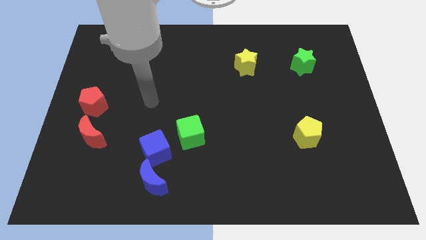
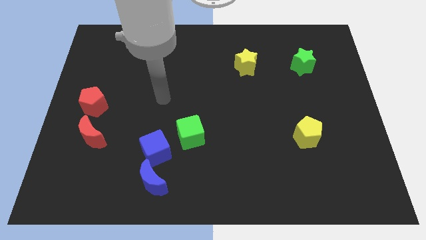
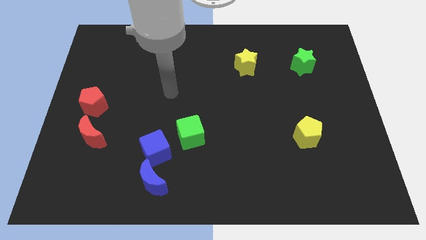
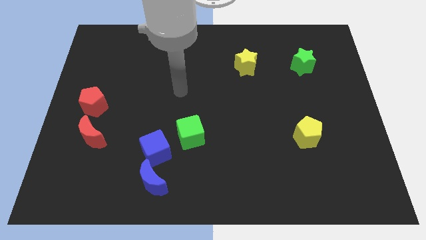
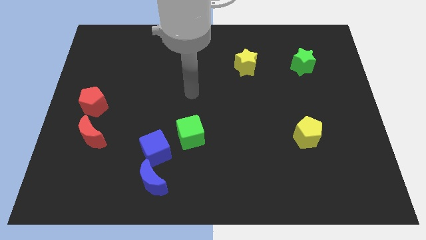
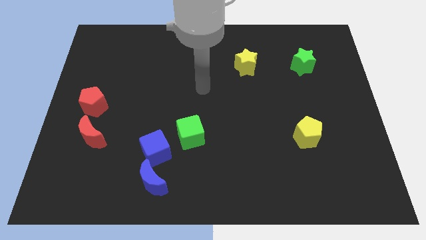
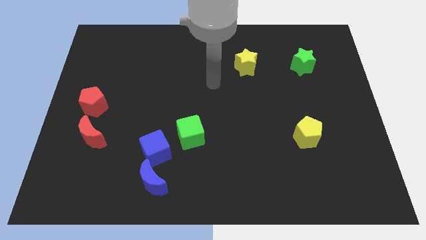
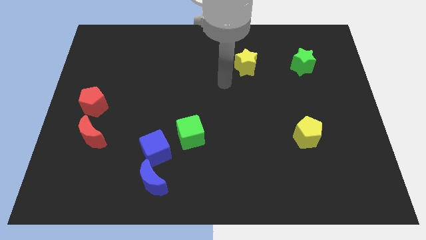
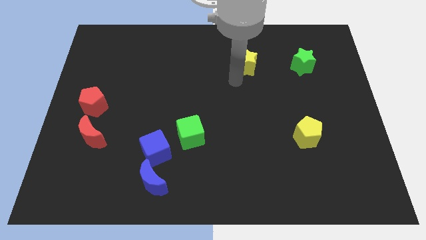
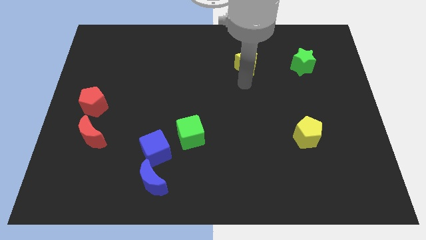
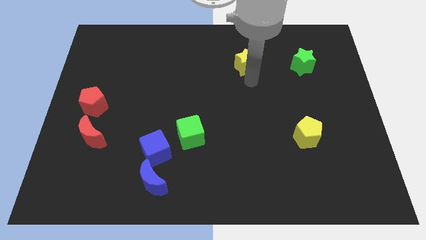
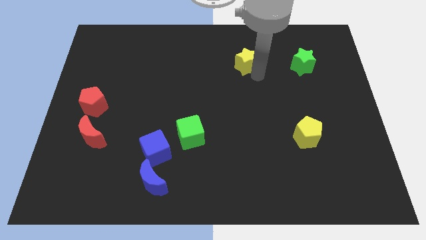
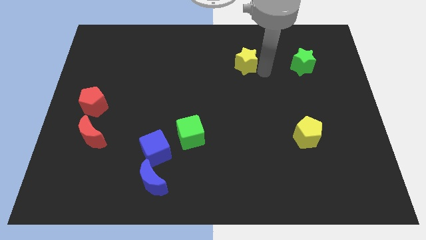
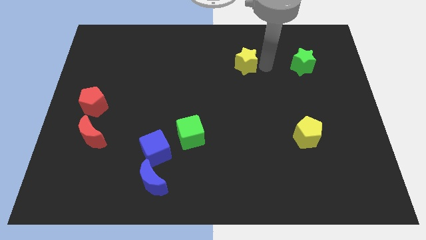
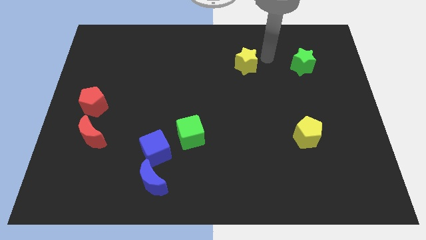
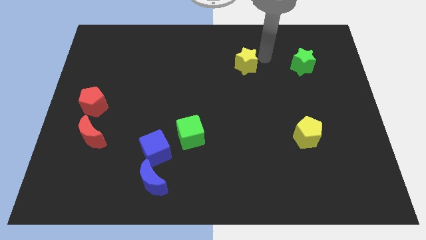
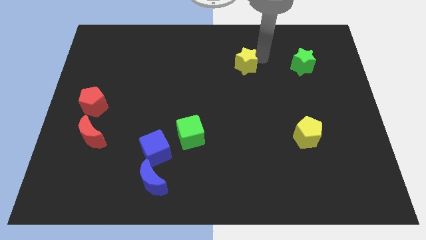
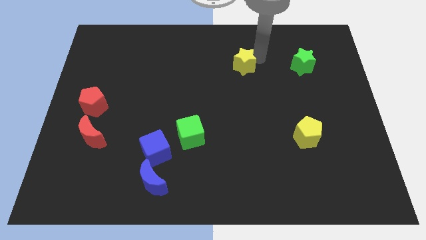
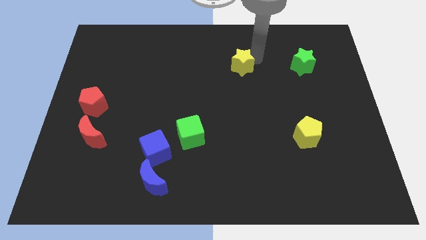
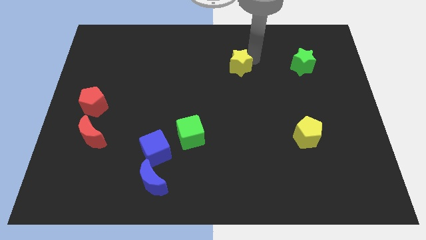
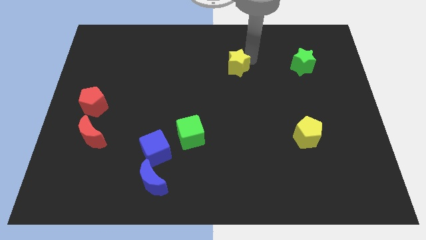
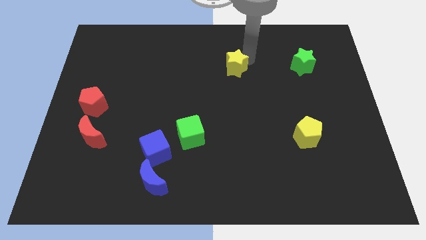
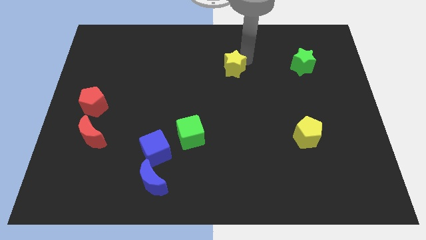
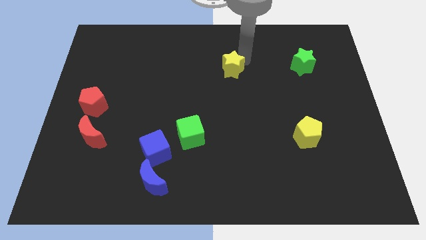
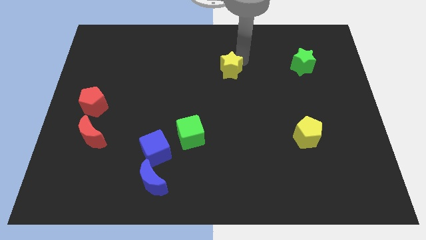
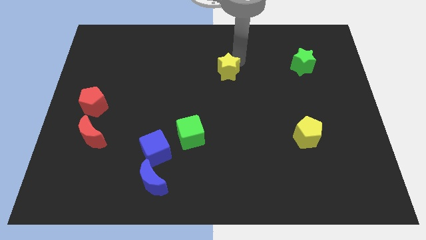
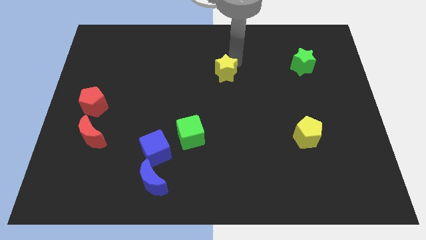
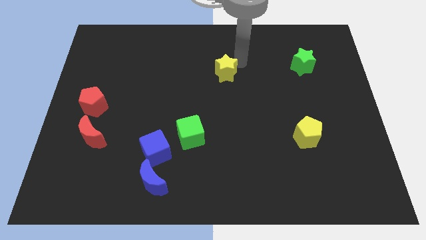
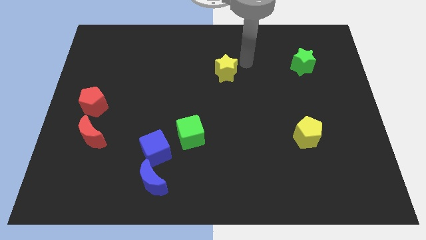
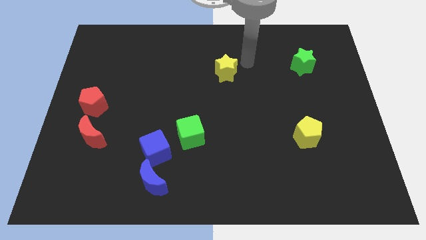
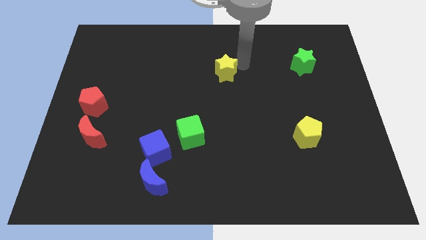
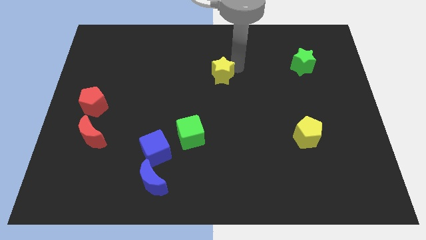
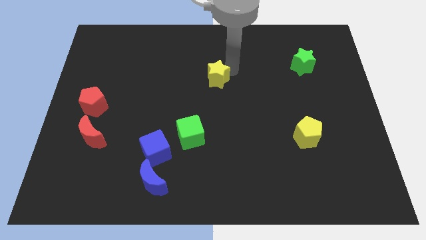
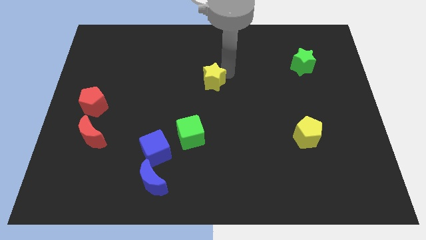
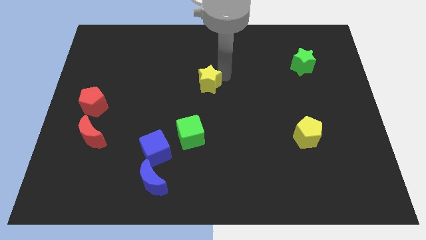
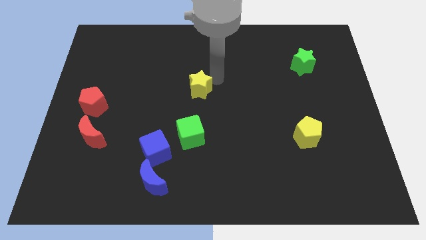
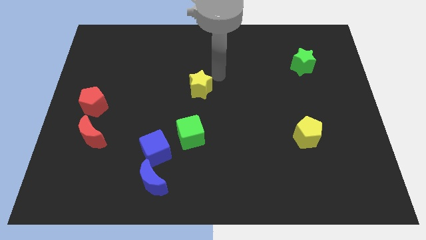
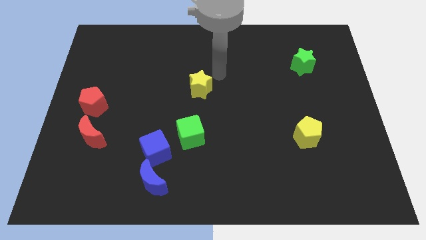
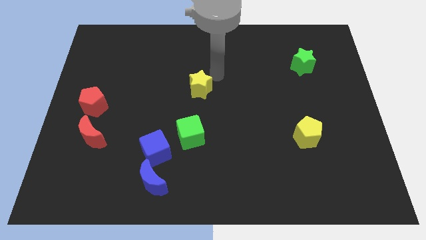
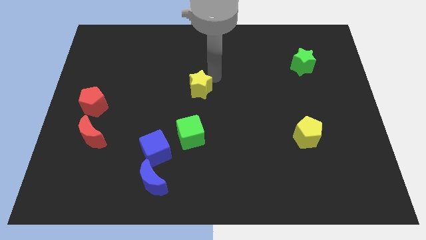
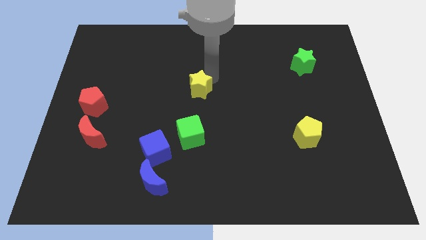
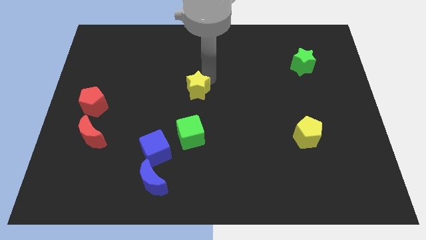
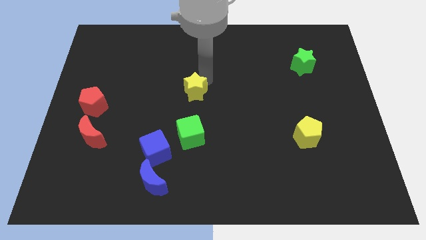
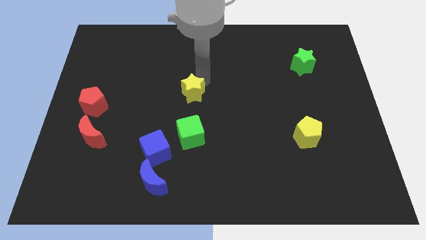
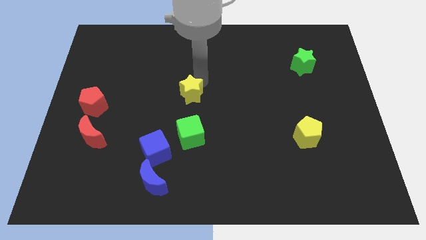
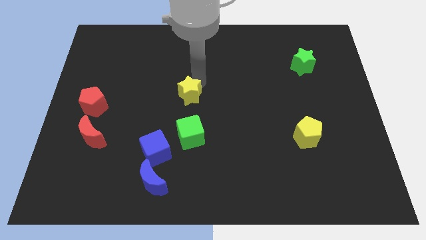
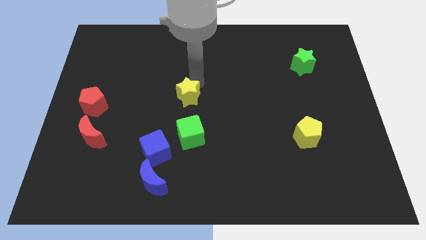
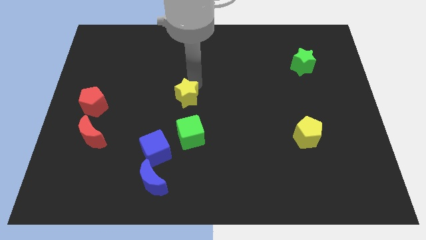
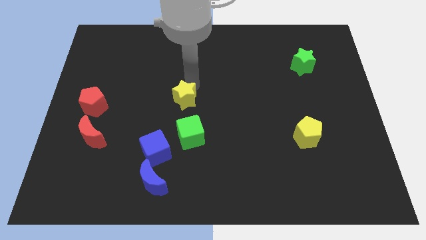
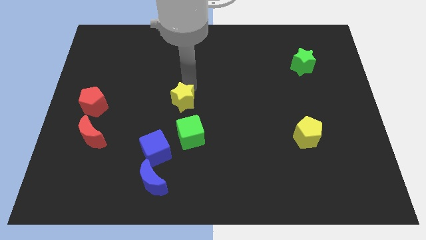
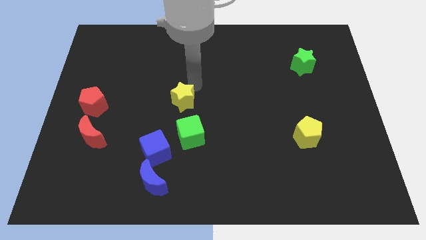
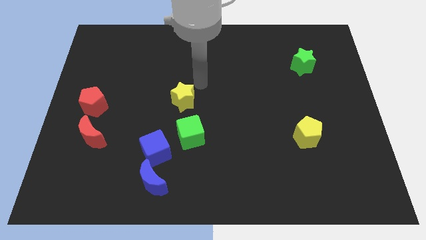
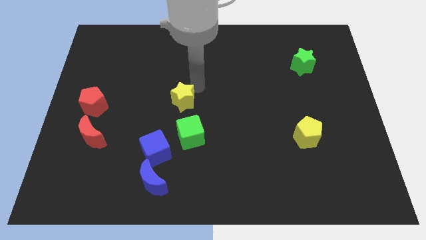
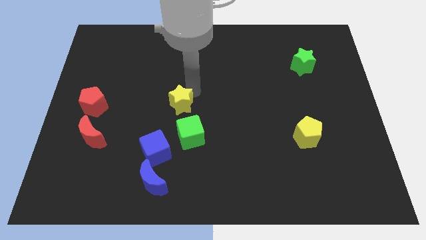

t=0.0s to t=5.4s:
slide the yellow star diagonally up and to the left of the green cube

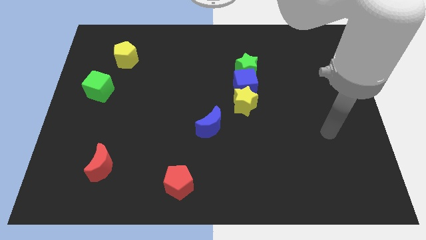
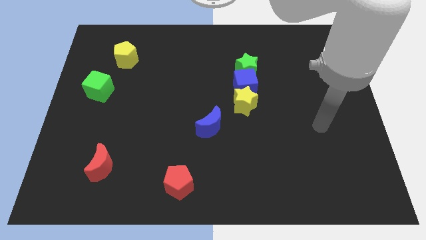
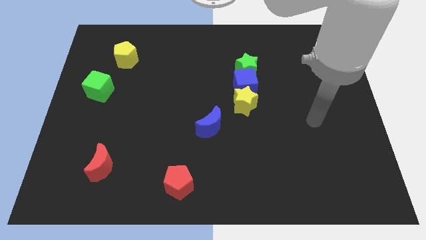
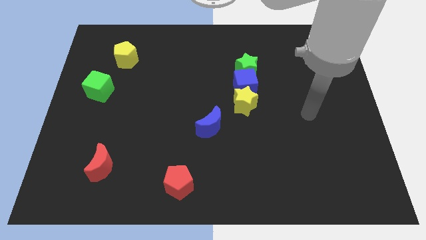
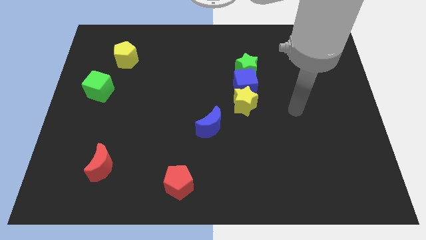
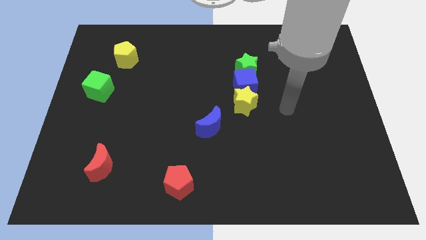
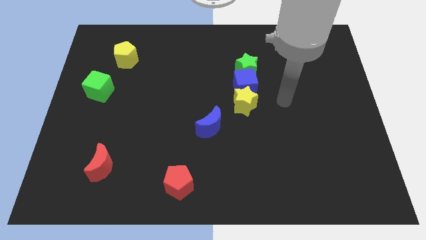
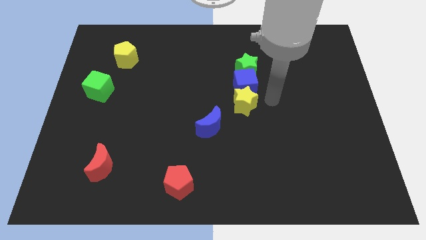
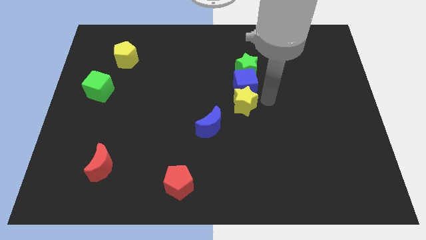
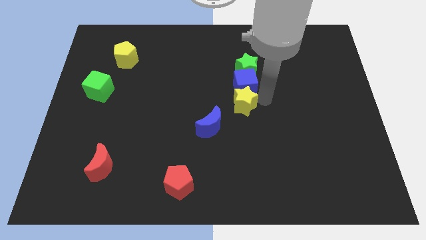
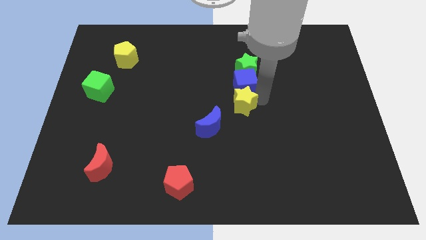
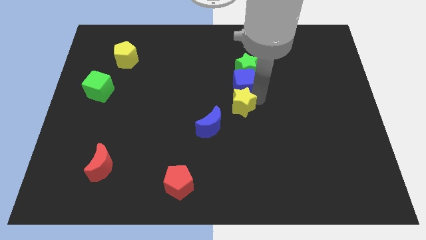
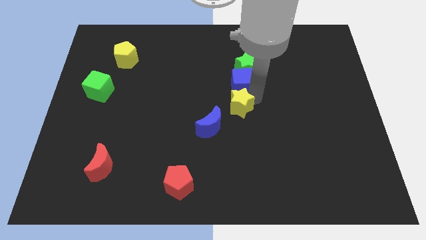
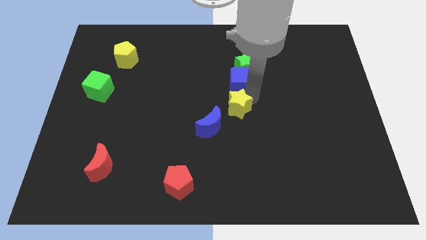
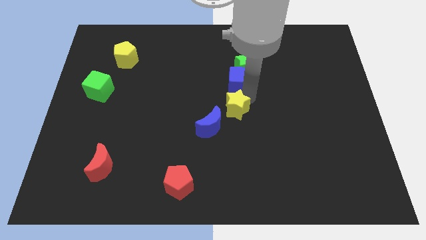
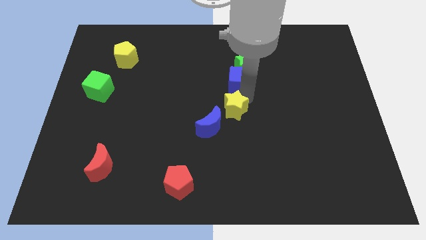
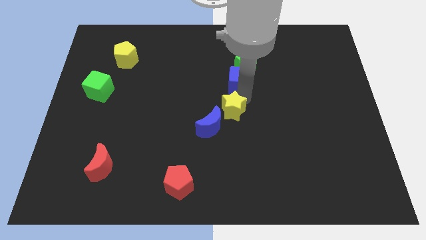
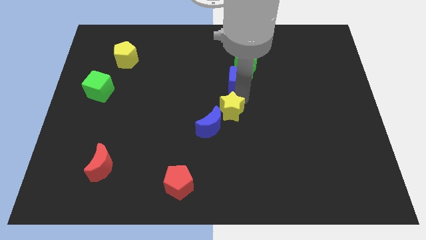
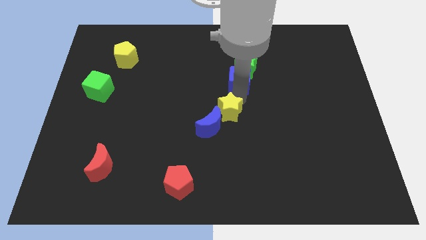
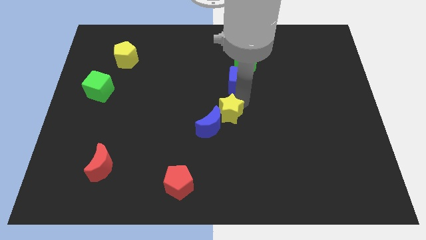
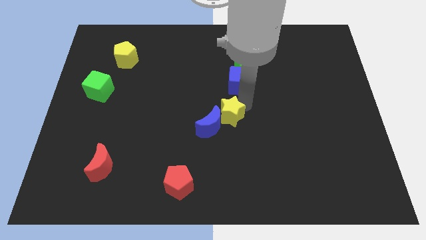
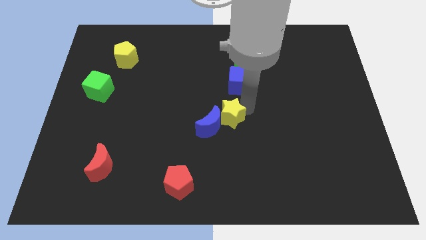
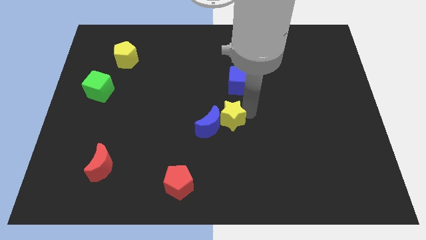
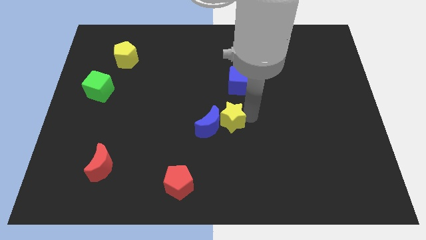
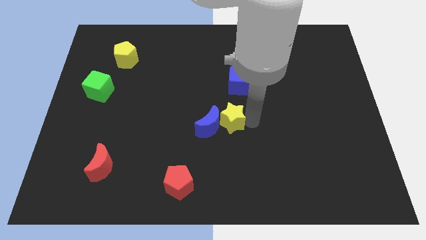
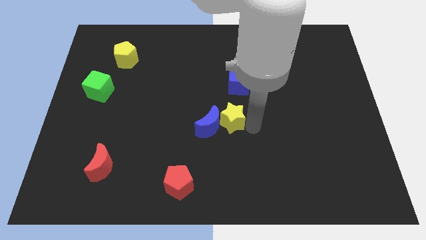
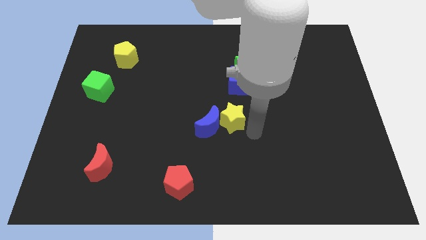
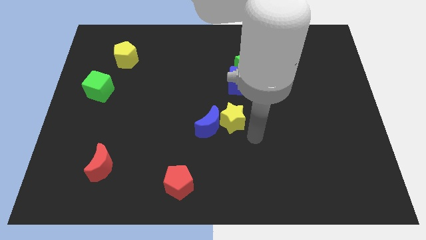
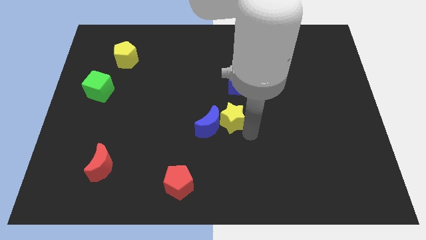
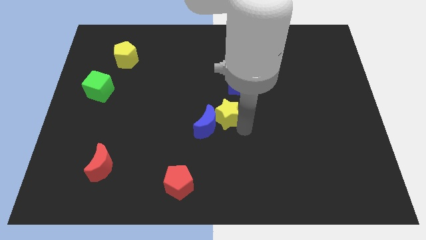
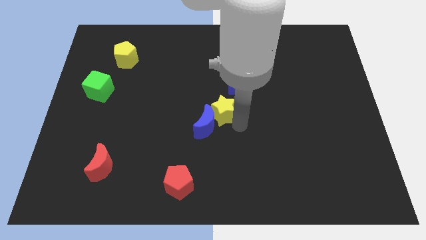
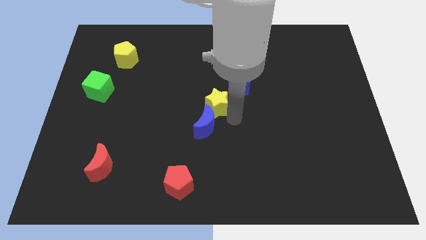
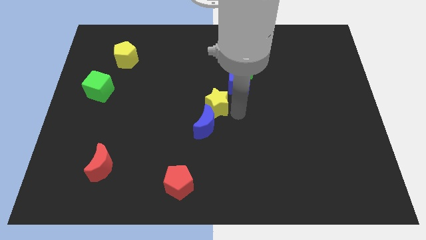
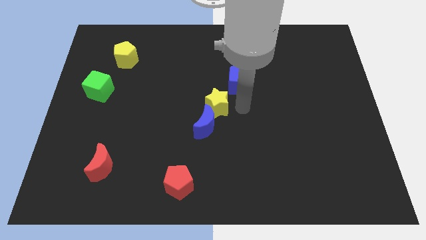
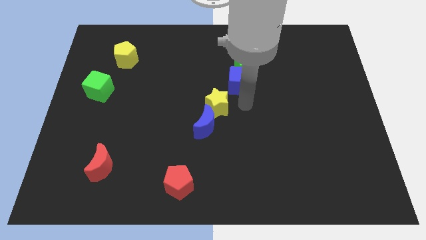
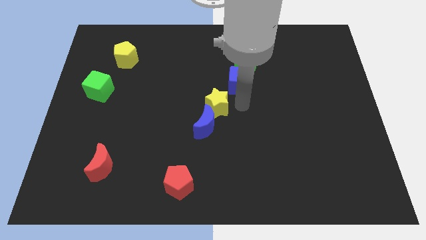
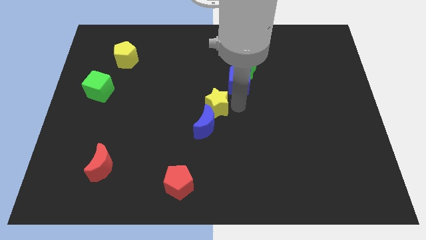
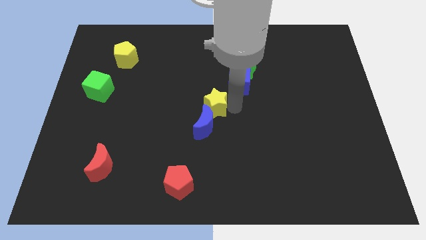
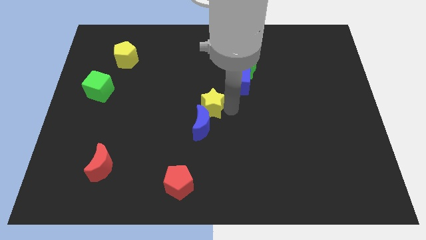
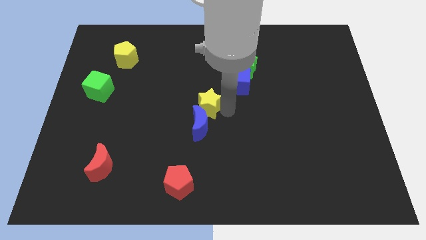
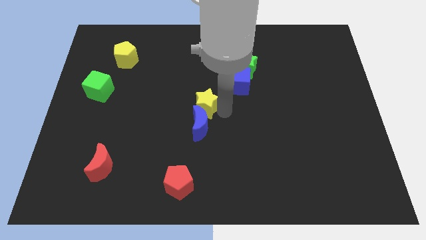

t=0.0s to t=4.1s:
push the yellow star to the top left side of the blue moon
